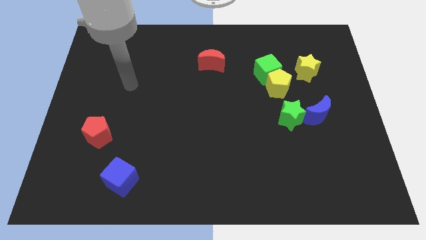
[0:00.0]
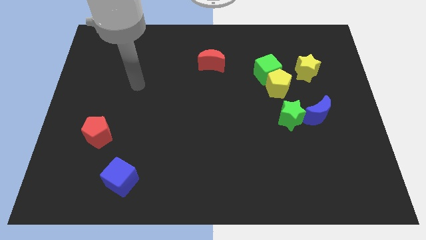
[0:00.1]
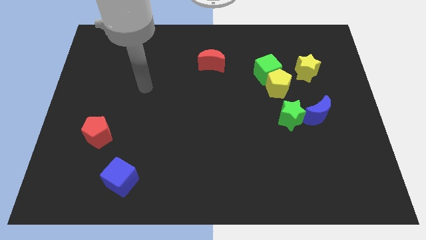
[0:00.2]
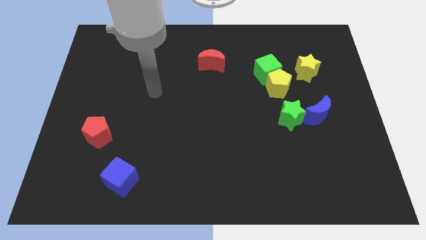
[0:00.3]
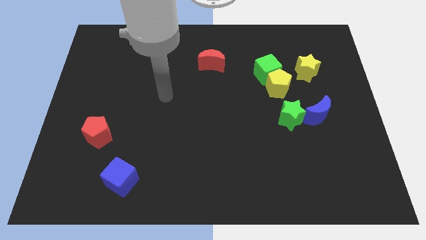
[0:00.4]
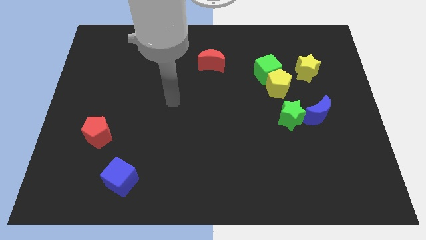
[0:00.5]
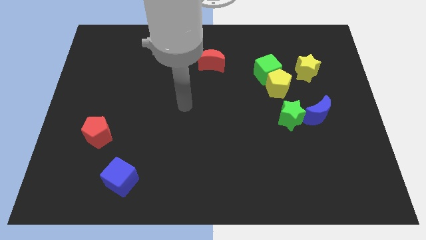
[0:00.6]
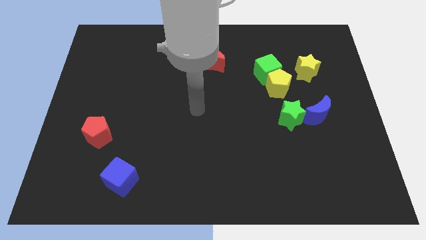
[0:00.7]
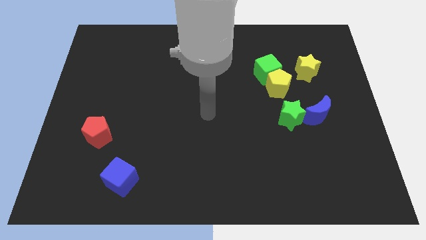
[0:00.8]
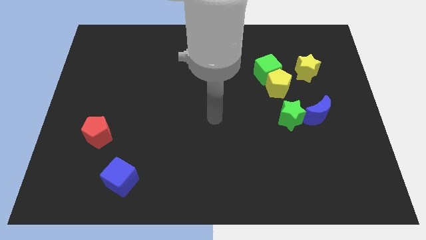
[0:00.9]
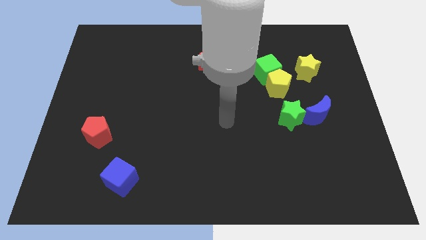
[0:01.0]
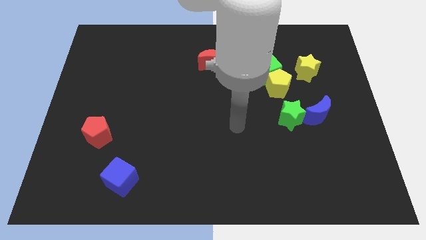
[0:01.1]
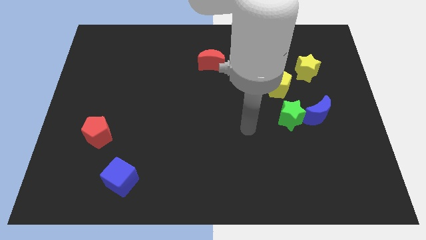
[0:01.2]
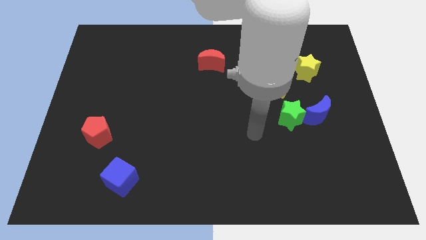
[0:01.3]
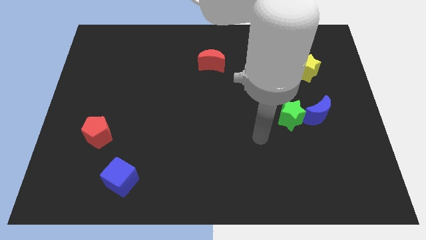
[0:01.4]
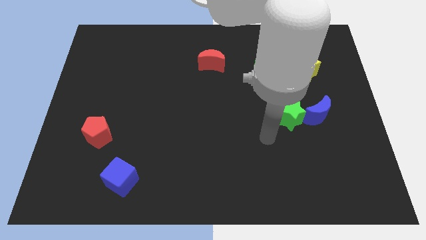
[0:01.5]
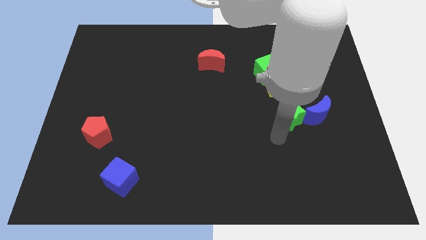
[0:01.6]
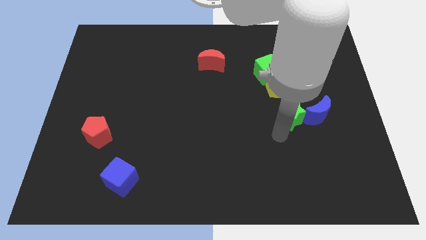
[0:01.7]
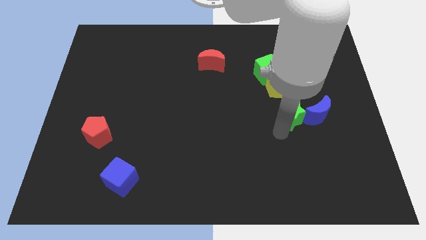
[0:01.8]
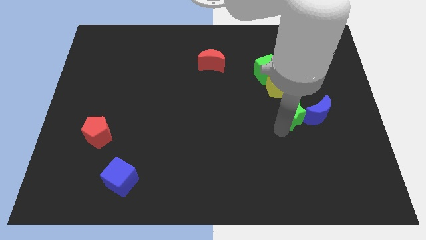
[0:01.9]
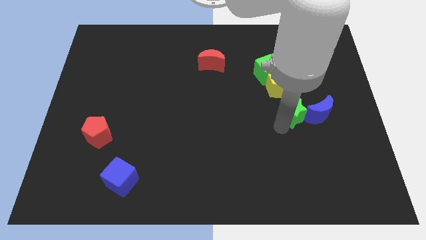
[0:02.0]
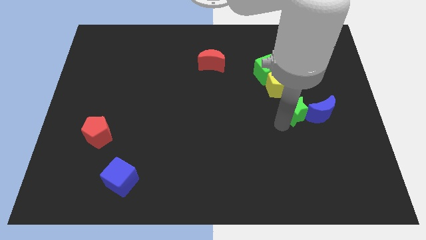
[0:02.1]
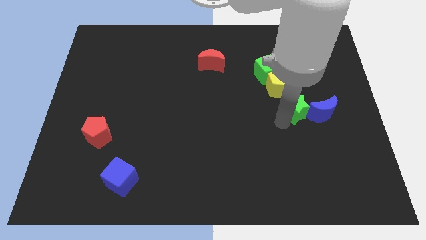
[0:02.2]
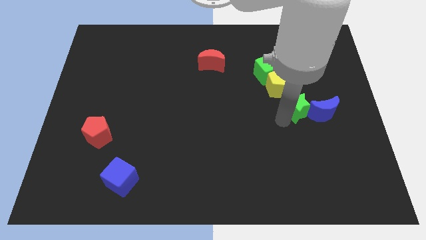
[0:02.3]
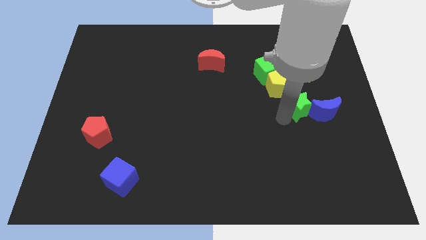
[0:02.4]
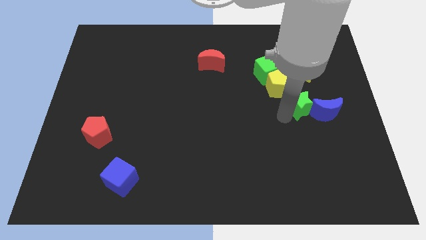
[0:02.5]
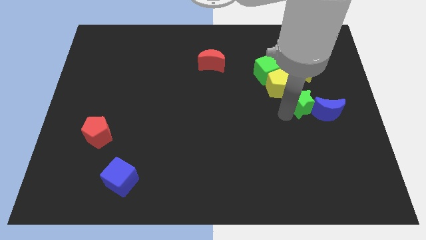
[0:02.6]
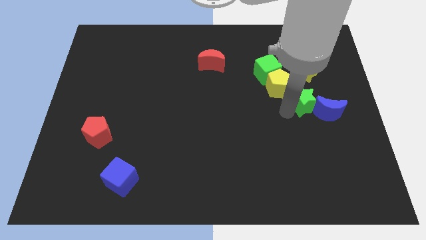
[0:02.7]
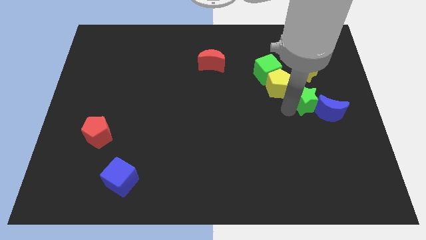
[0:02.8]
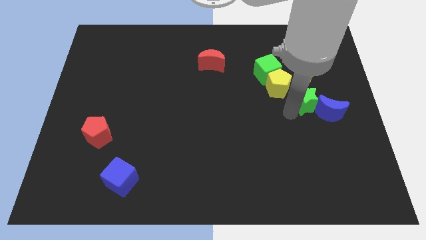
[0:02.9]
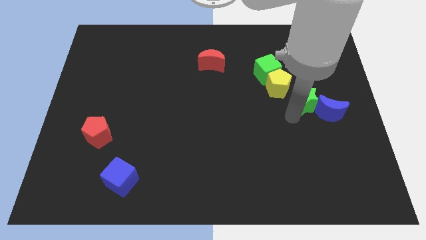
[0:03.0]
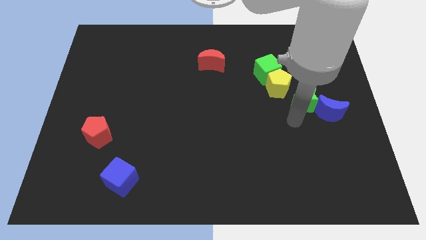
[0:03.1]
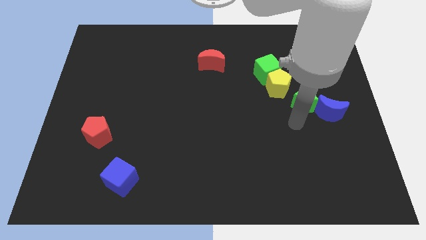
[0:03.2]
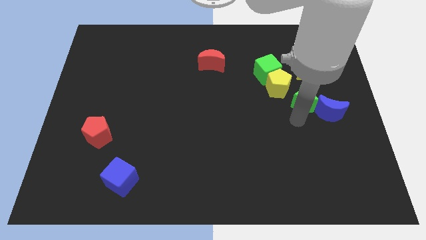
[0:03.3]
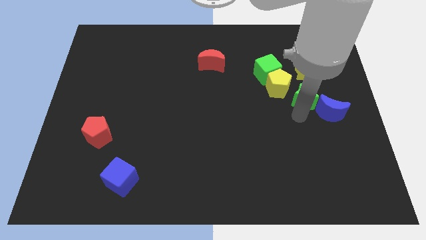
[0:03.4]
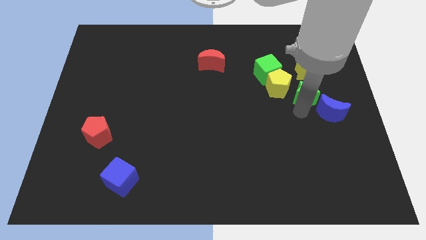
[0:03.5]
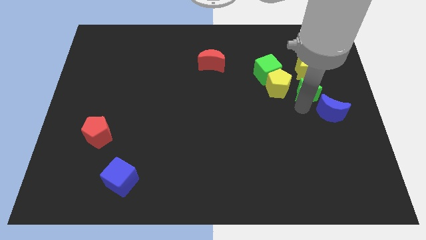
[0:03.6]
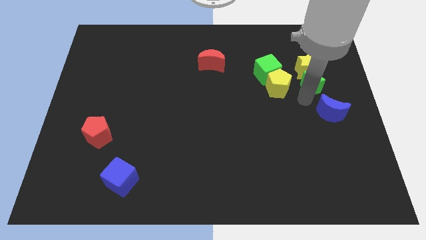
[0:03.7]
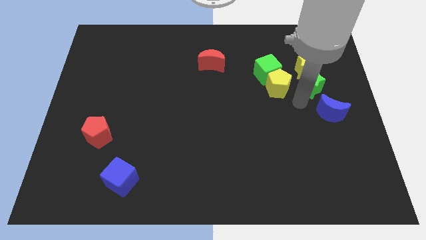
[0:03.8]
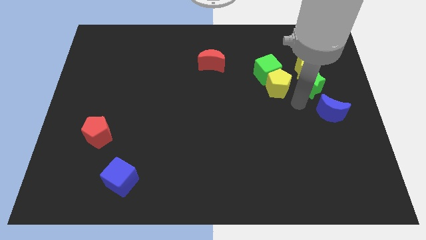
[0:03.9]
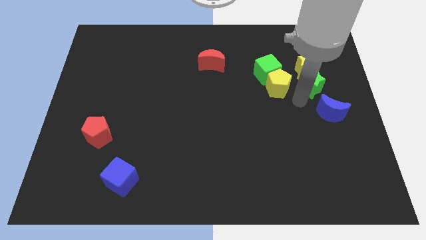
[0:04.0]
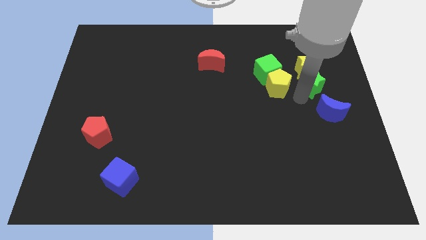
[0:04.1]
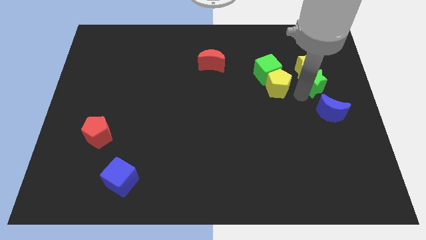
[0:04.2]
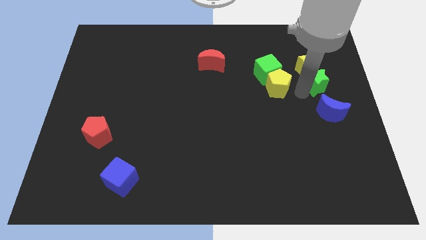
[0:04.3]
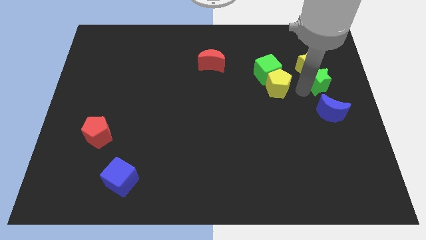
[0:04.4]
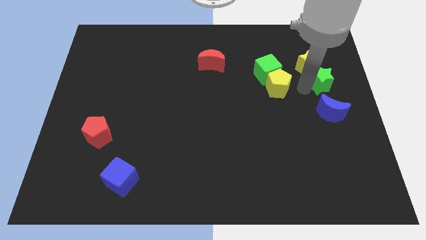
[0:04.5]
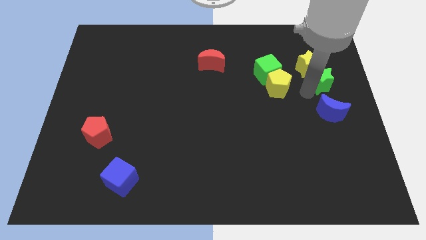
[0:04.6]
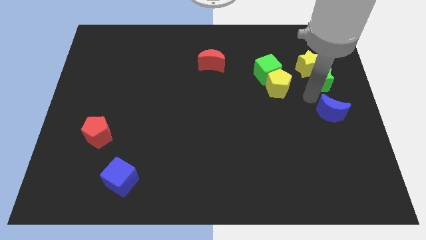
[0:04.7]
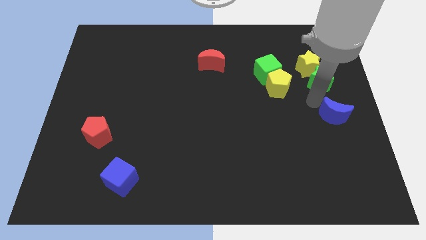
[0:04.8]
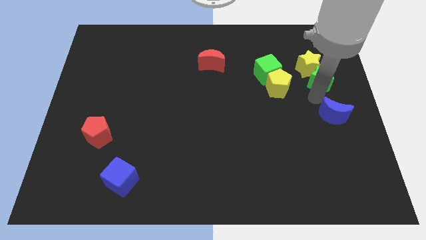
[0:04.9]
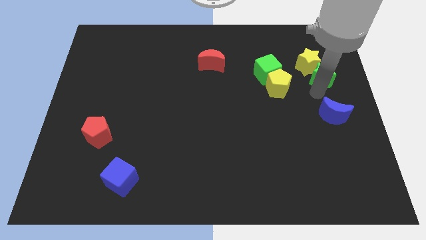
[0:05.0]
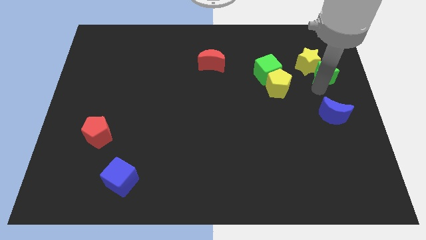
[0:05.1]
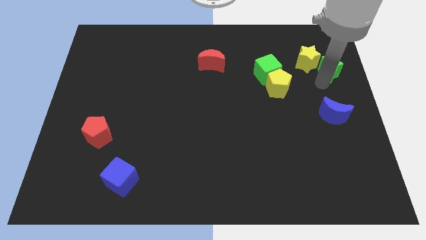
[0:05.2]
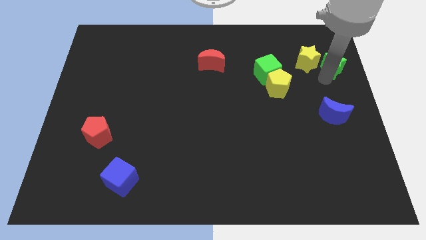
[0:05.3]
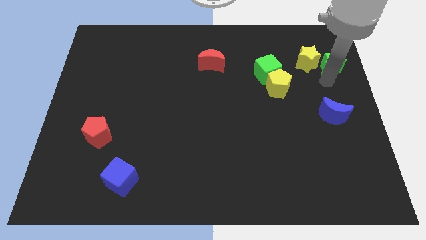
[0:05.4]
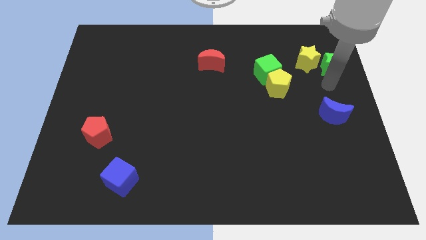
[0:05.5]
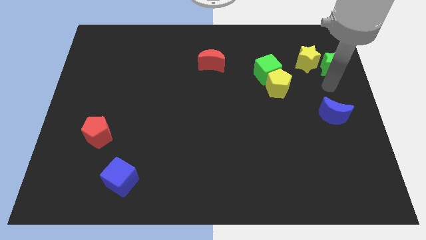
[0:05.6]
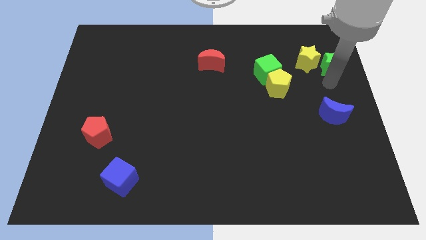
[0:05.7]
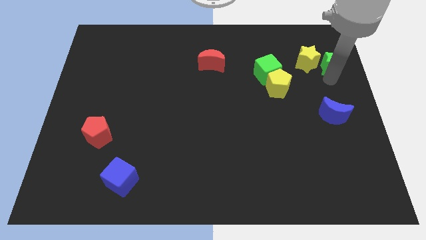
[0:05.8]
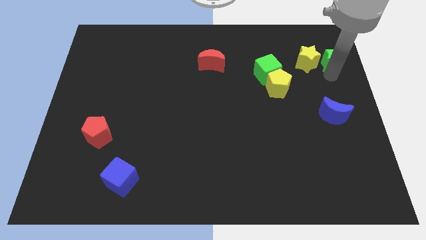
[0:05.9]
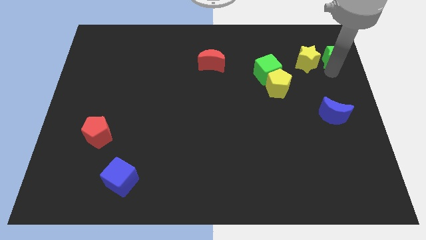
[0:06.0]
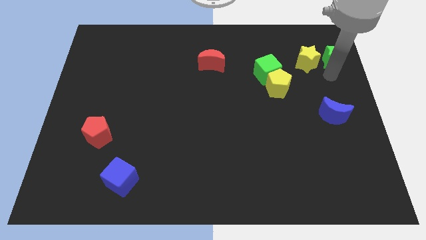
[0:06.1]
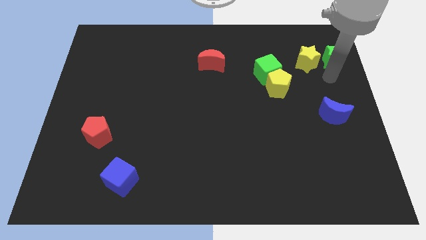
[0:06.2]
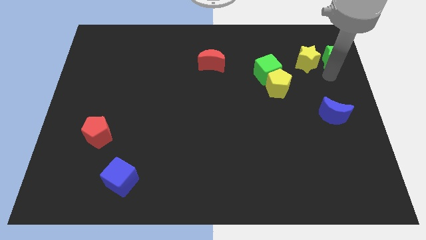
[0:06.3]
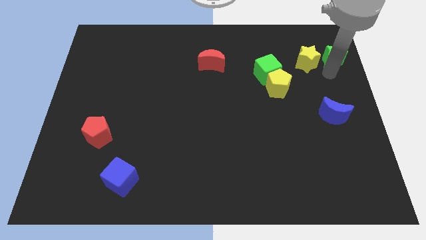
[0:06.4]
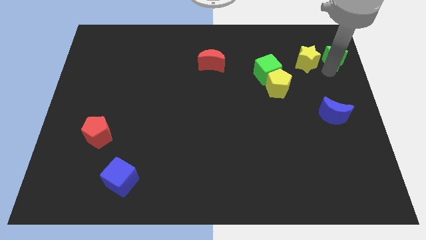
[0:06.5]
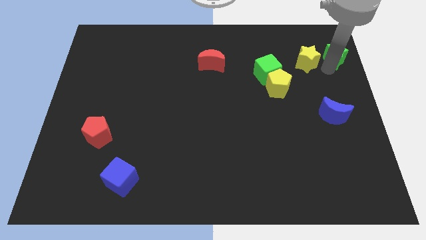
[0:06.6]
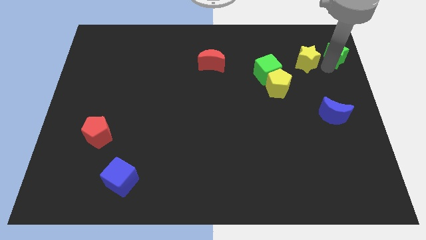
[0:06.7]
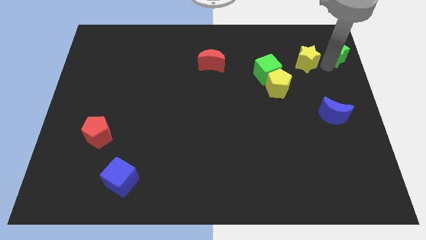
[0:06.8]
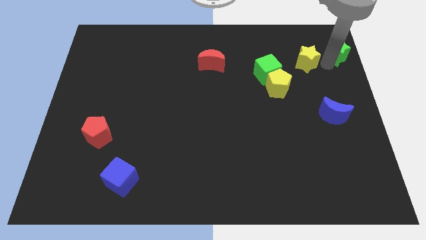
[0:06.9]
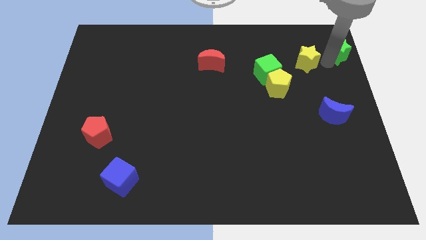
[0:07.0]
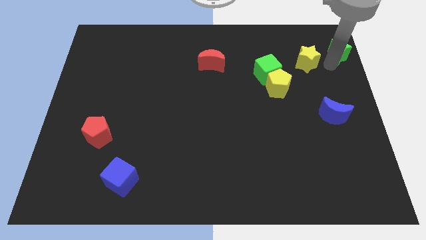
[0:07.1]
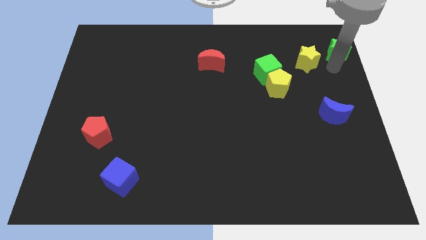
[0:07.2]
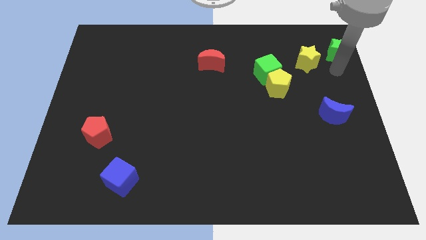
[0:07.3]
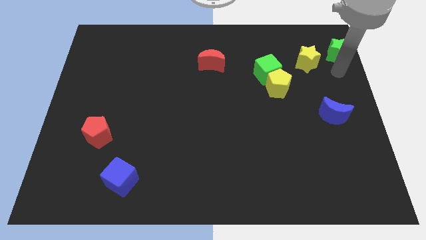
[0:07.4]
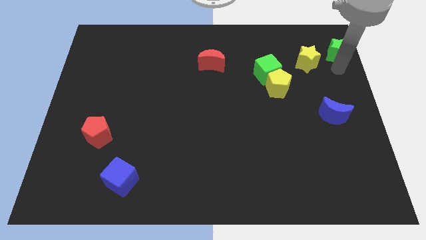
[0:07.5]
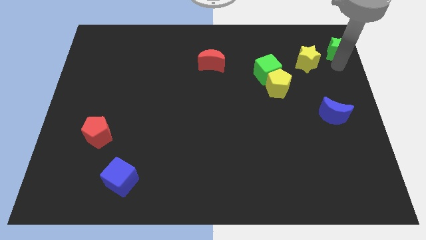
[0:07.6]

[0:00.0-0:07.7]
put the green star to the top right corner
